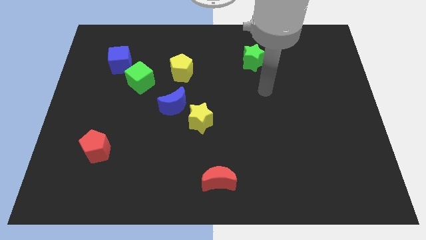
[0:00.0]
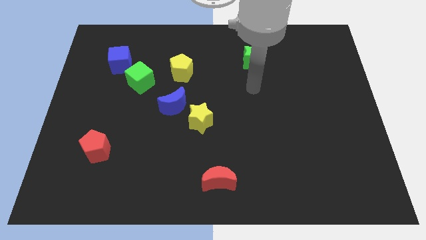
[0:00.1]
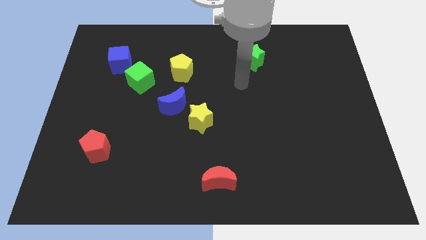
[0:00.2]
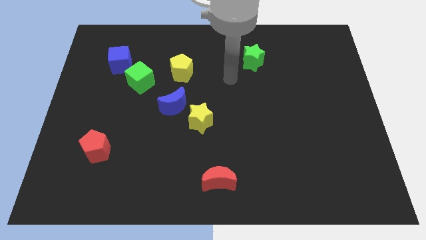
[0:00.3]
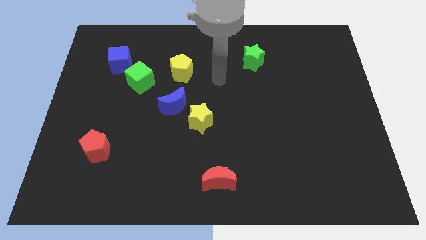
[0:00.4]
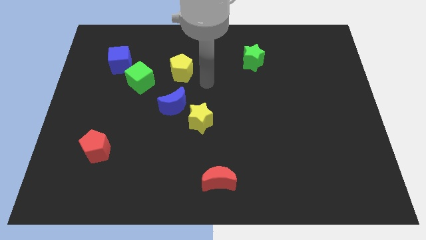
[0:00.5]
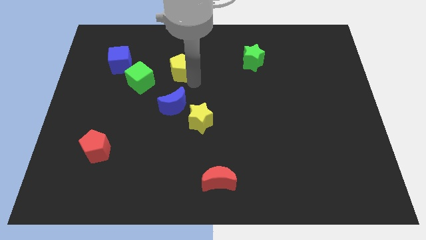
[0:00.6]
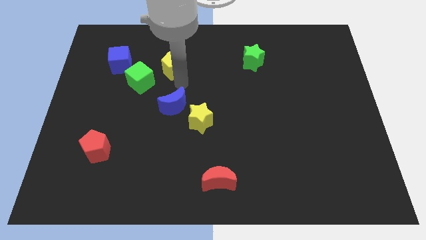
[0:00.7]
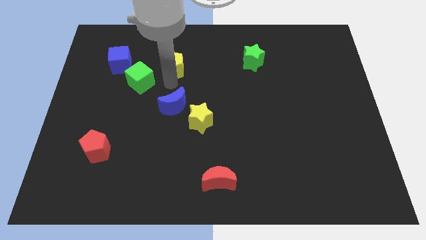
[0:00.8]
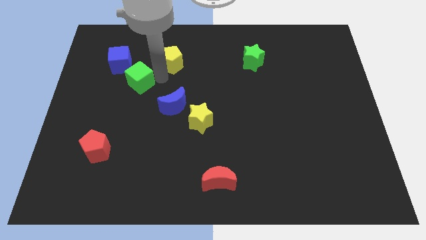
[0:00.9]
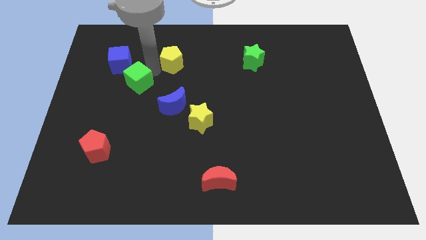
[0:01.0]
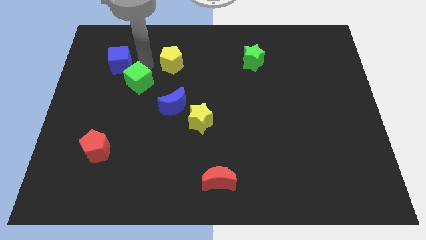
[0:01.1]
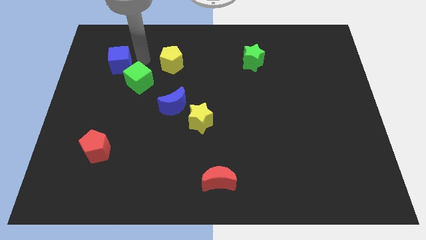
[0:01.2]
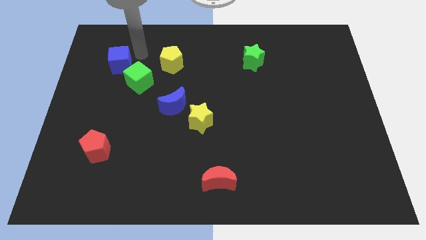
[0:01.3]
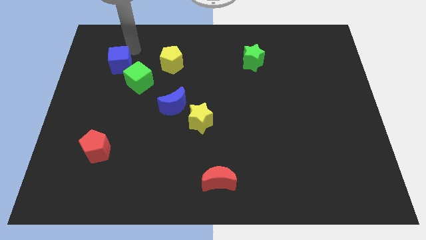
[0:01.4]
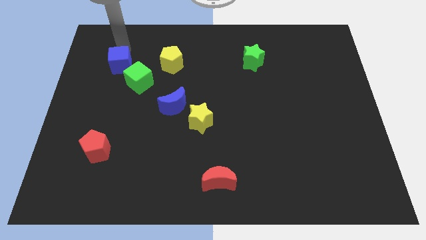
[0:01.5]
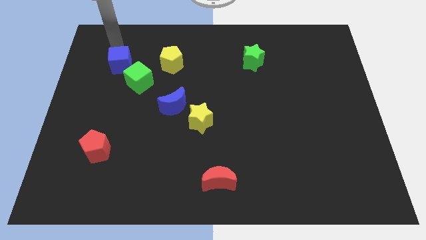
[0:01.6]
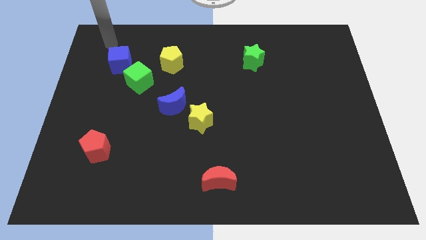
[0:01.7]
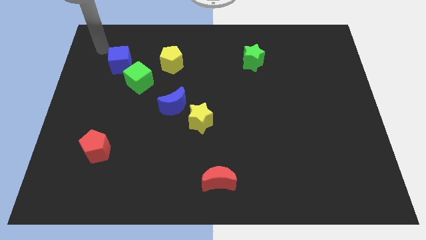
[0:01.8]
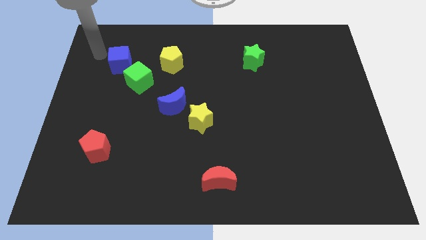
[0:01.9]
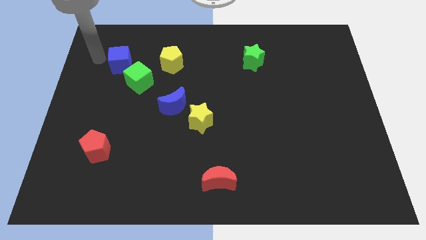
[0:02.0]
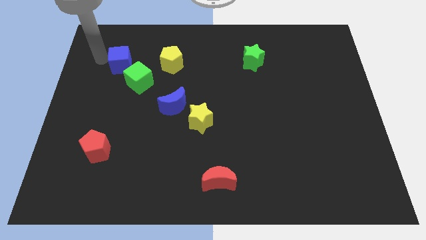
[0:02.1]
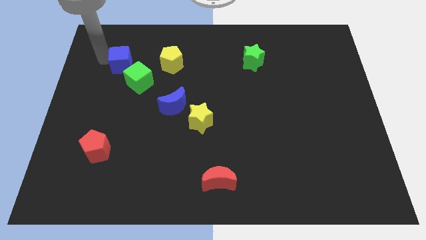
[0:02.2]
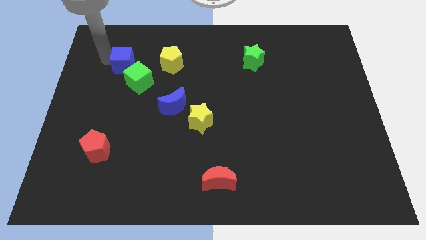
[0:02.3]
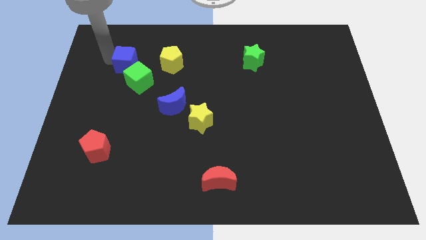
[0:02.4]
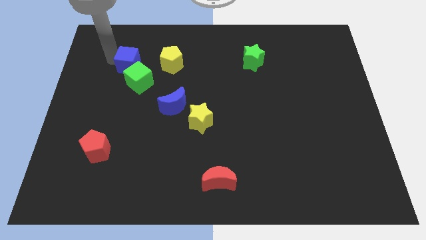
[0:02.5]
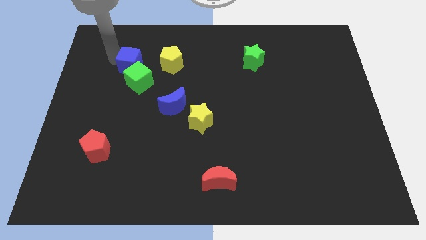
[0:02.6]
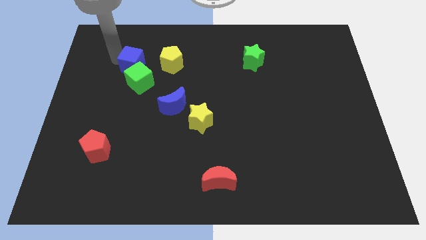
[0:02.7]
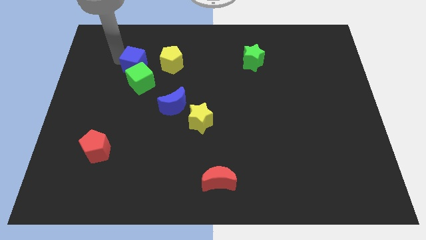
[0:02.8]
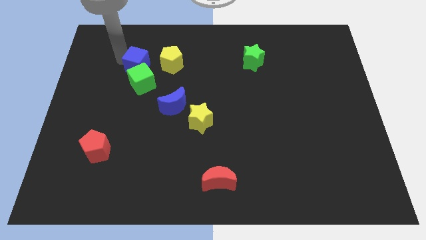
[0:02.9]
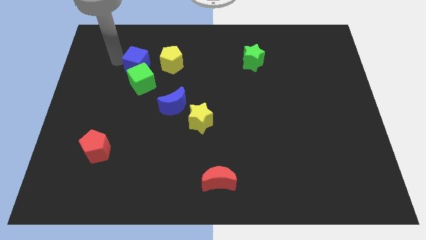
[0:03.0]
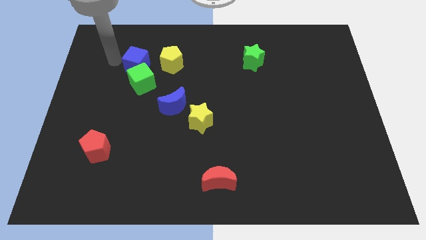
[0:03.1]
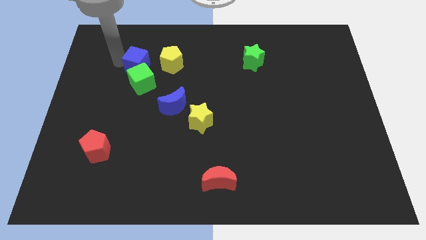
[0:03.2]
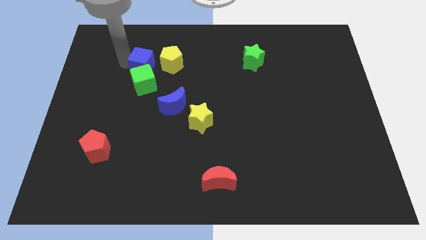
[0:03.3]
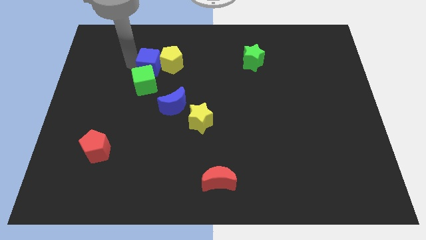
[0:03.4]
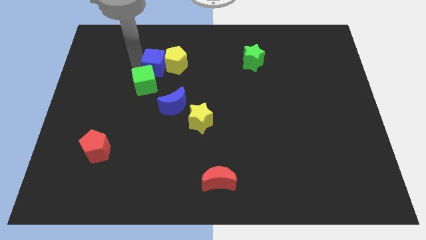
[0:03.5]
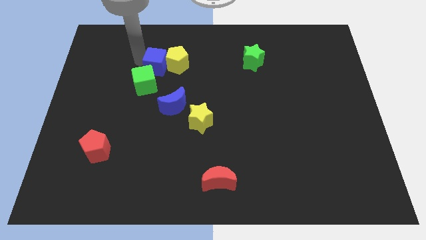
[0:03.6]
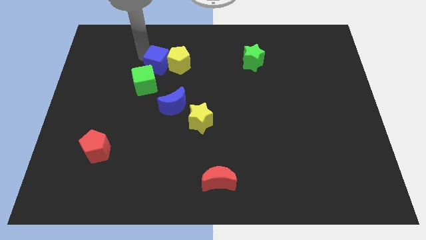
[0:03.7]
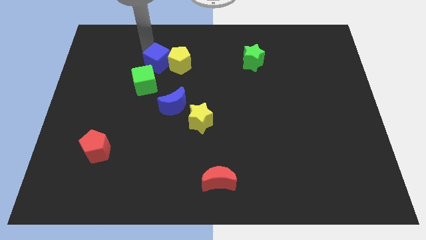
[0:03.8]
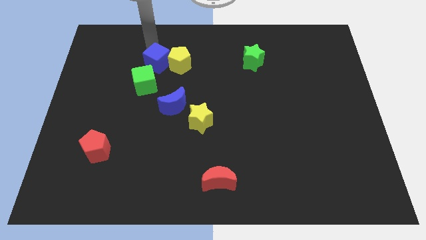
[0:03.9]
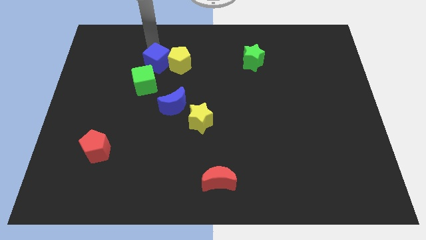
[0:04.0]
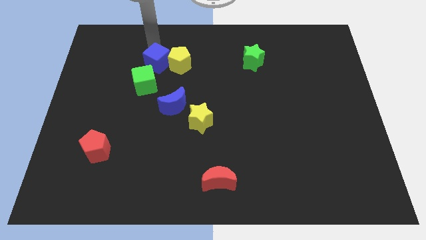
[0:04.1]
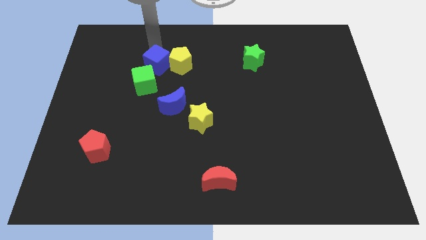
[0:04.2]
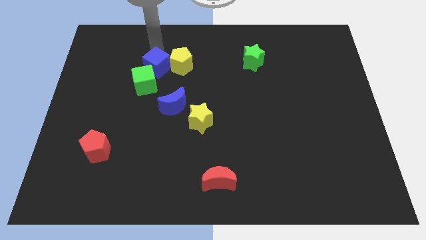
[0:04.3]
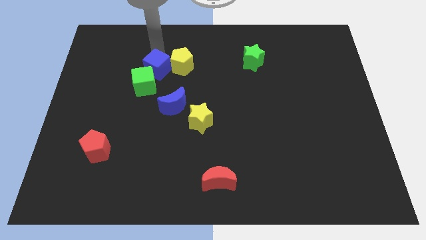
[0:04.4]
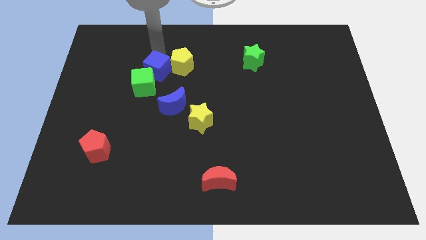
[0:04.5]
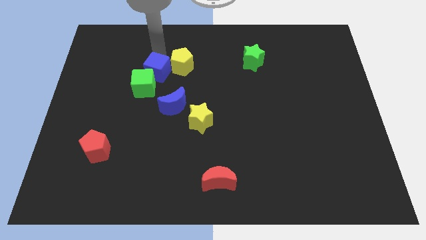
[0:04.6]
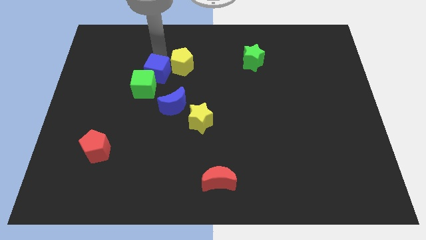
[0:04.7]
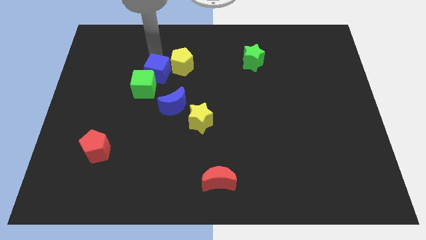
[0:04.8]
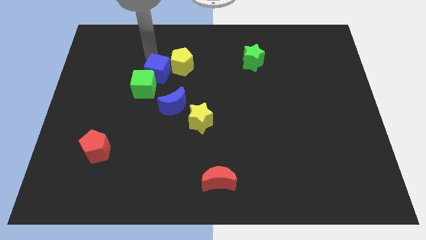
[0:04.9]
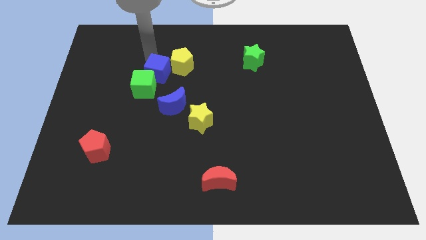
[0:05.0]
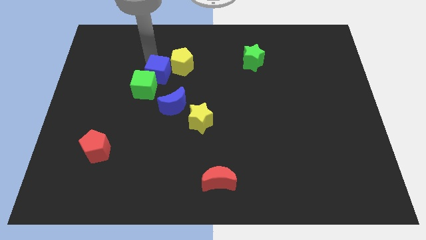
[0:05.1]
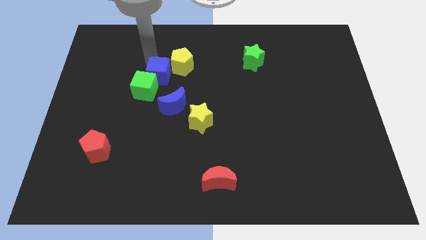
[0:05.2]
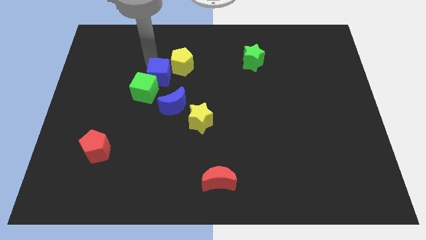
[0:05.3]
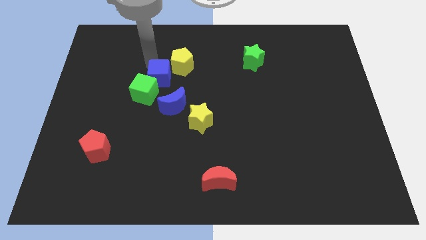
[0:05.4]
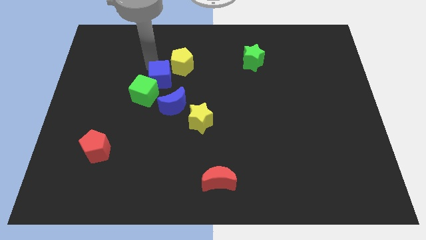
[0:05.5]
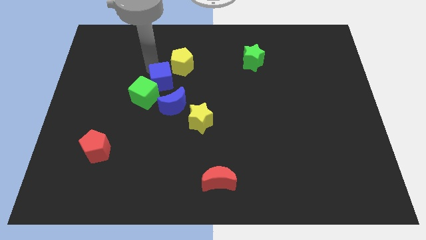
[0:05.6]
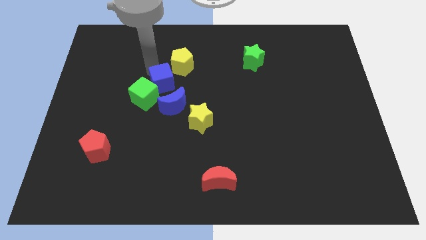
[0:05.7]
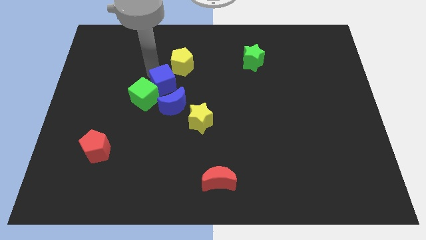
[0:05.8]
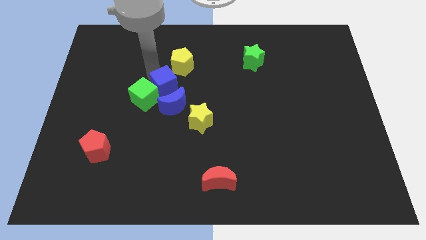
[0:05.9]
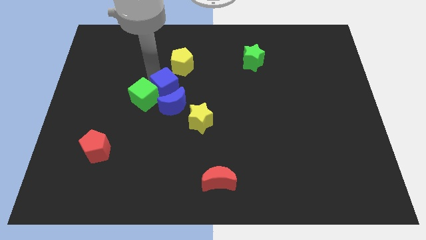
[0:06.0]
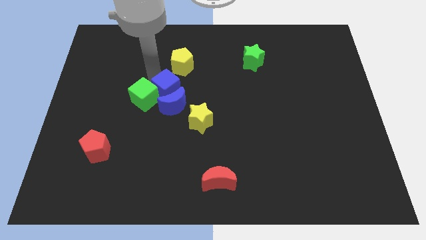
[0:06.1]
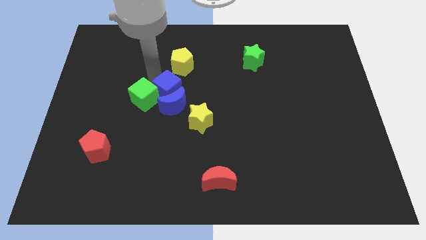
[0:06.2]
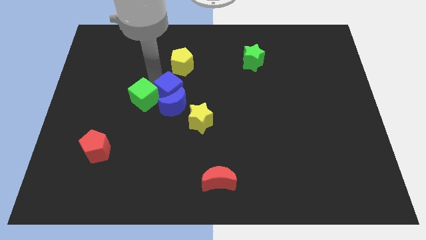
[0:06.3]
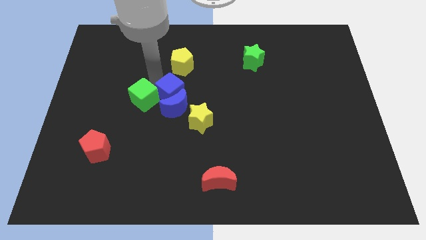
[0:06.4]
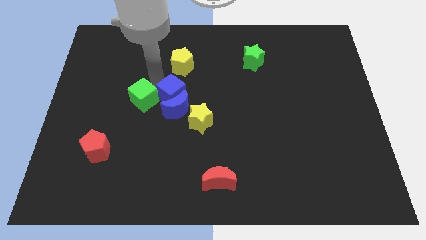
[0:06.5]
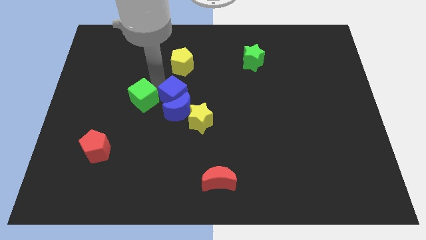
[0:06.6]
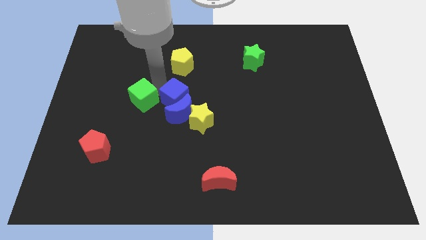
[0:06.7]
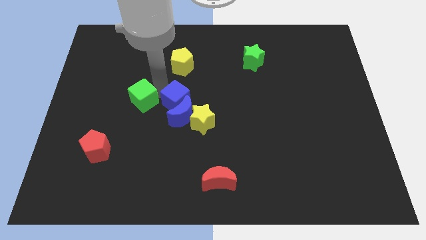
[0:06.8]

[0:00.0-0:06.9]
slide the blue cube diagonally down and to the right of the green cube
